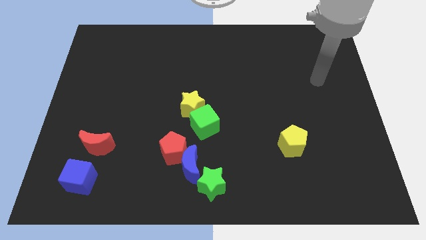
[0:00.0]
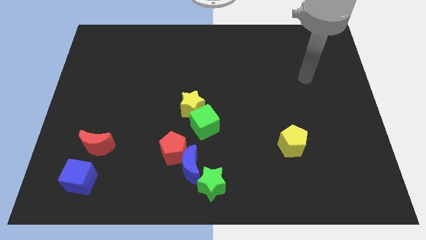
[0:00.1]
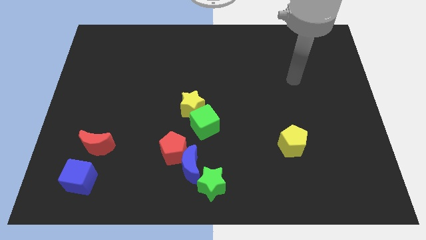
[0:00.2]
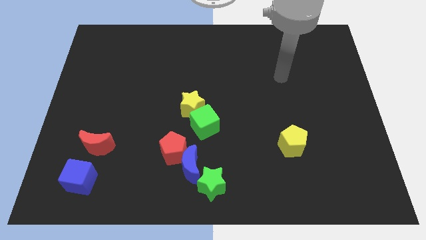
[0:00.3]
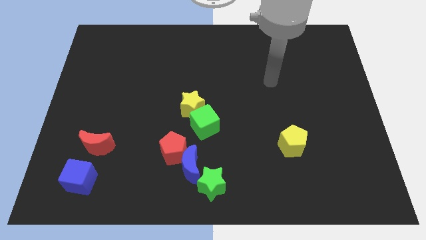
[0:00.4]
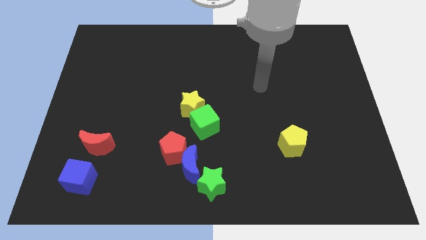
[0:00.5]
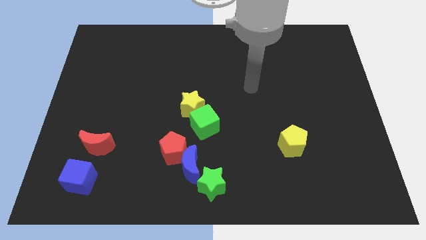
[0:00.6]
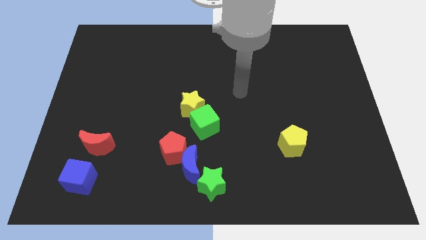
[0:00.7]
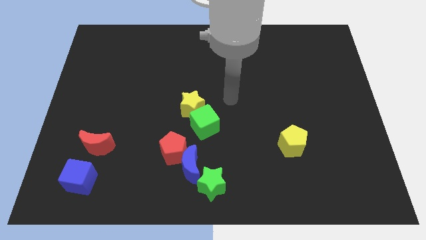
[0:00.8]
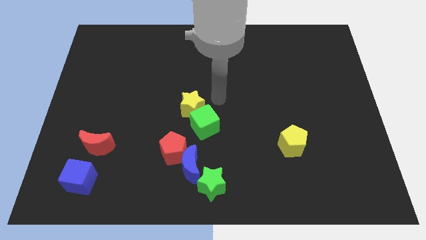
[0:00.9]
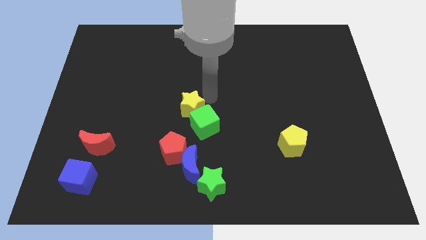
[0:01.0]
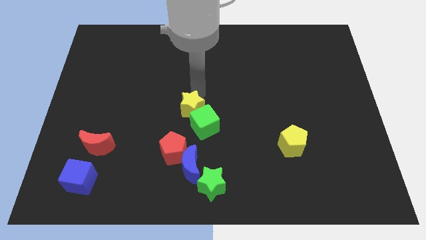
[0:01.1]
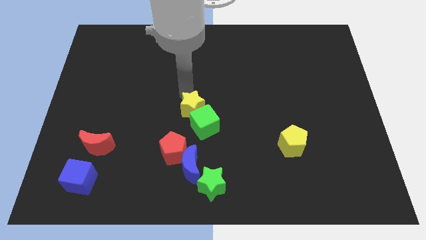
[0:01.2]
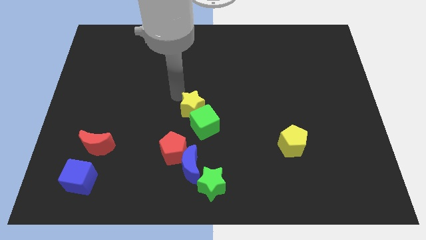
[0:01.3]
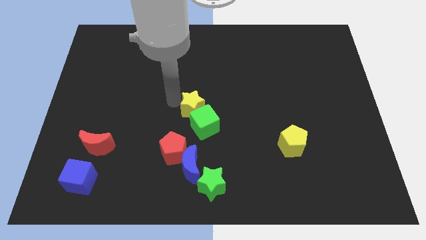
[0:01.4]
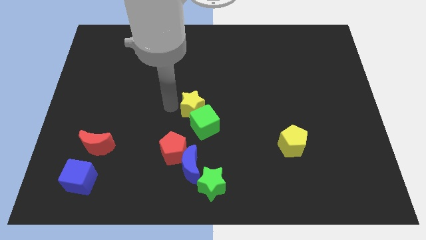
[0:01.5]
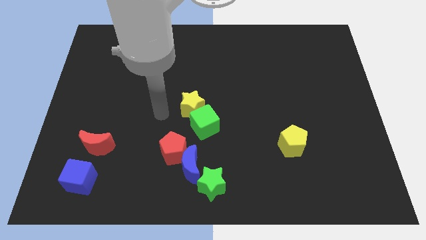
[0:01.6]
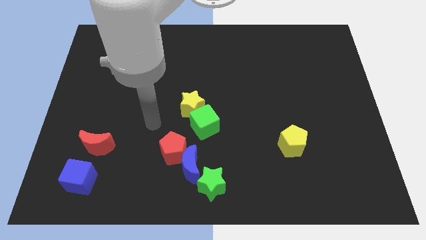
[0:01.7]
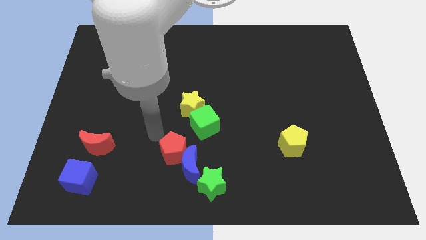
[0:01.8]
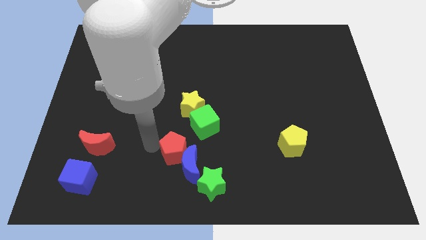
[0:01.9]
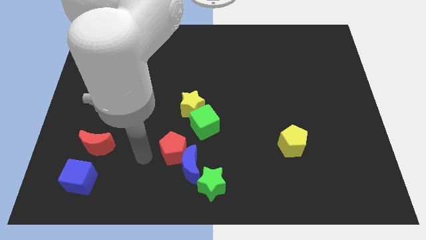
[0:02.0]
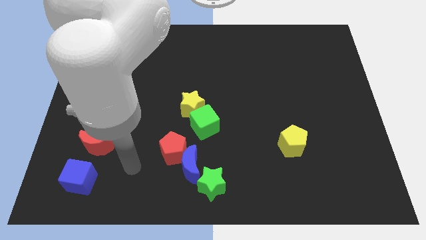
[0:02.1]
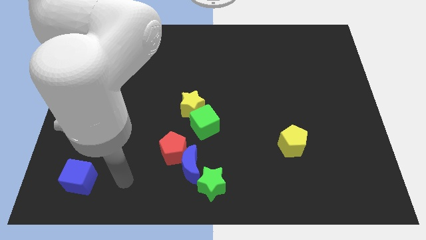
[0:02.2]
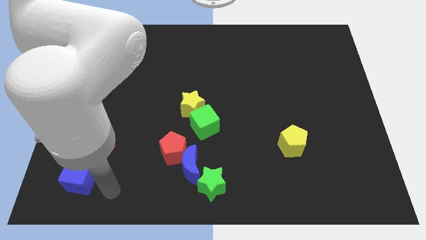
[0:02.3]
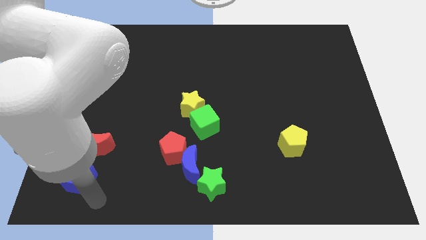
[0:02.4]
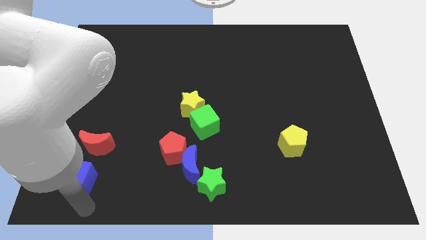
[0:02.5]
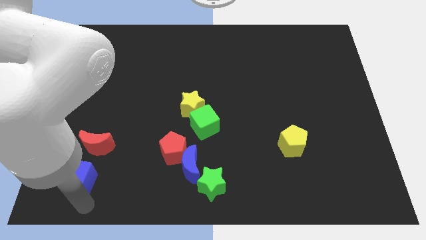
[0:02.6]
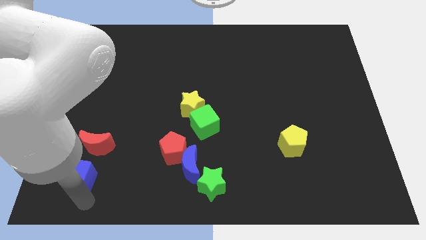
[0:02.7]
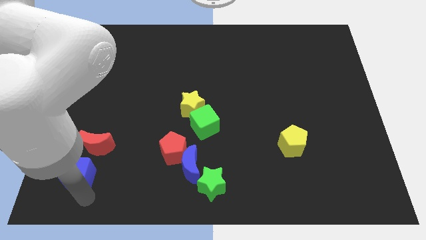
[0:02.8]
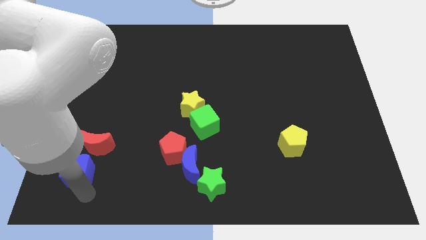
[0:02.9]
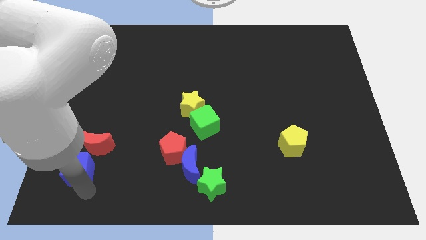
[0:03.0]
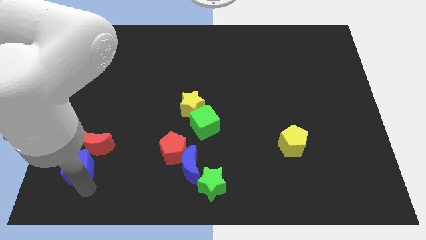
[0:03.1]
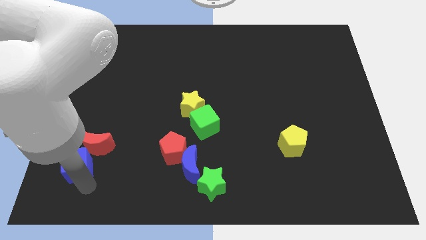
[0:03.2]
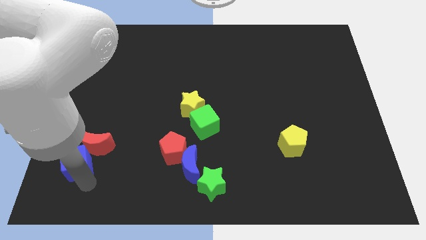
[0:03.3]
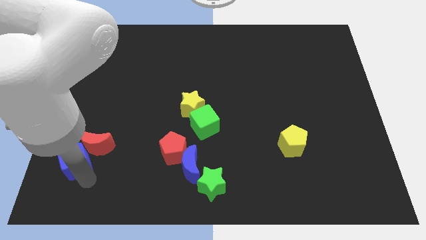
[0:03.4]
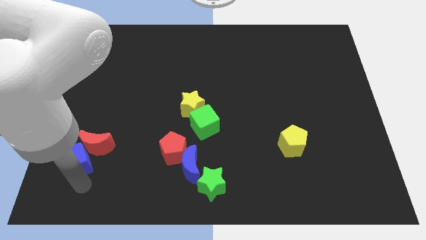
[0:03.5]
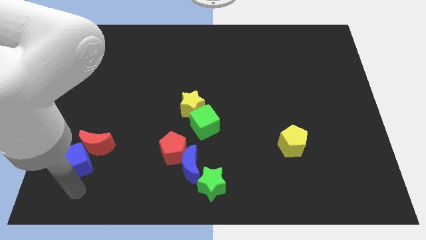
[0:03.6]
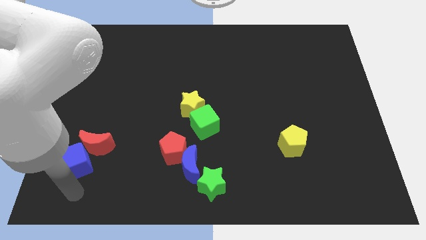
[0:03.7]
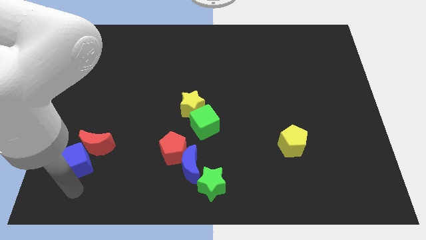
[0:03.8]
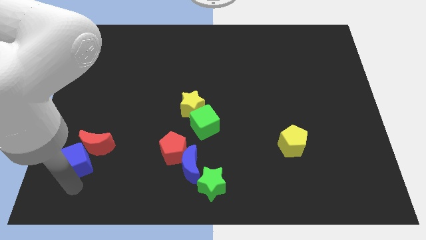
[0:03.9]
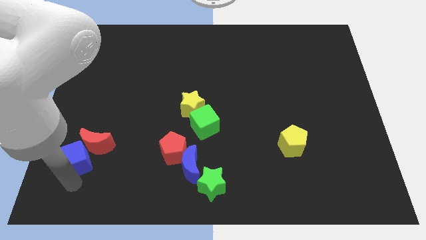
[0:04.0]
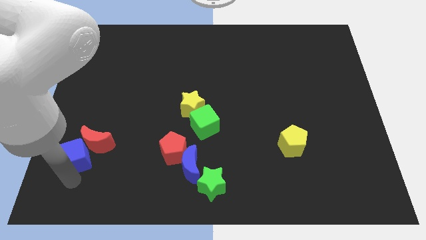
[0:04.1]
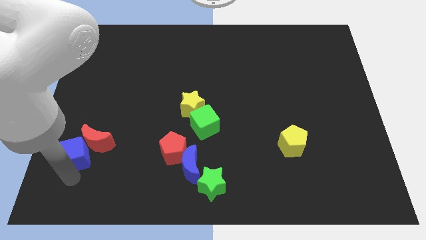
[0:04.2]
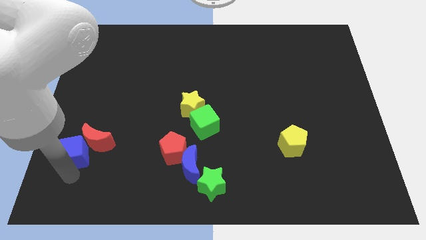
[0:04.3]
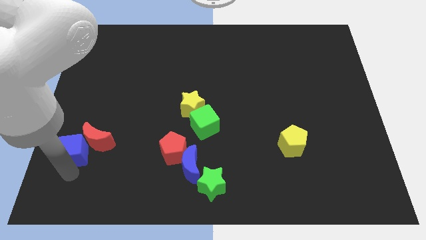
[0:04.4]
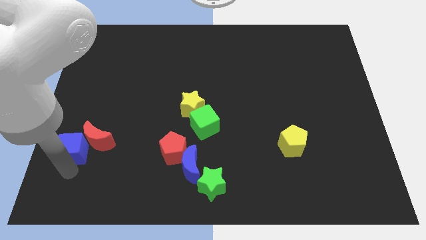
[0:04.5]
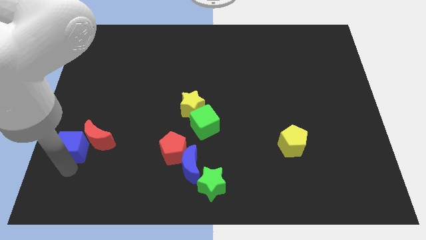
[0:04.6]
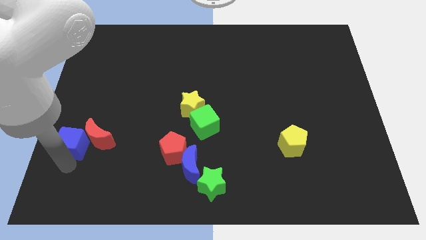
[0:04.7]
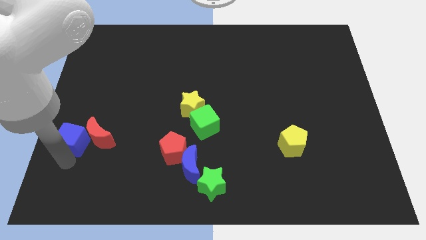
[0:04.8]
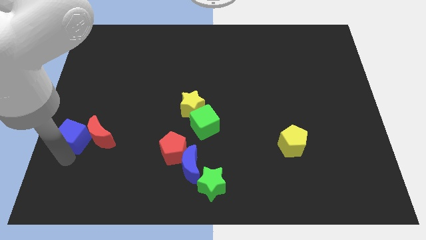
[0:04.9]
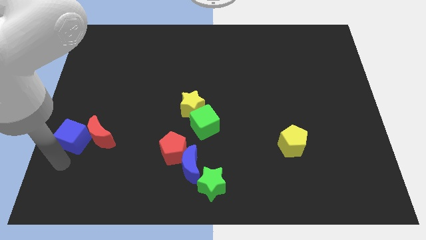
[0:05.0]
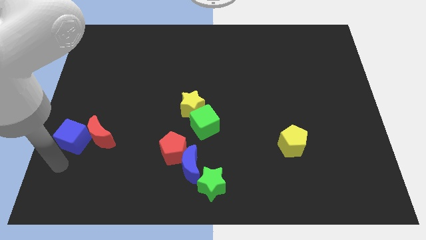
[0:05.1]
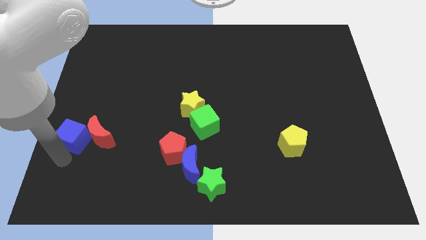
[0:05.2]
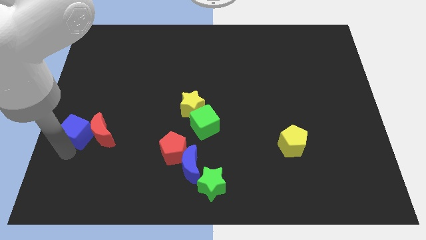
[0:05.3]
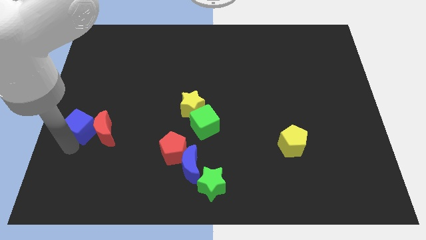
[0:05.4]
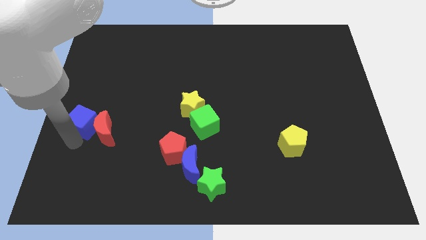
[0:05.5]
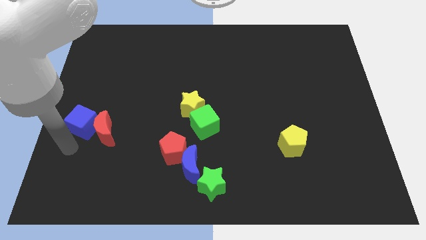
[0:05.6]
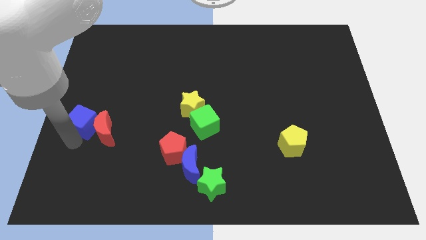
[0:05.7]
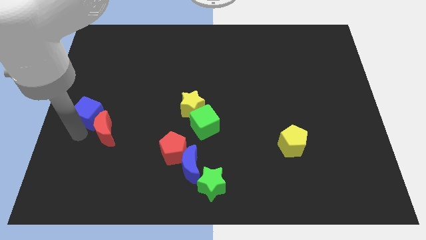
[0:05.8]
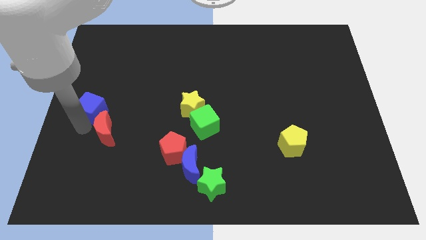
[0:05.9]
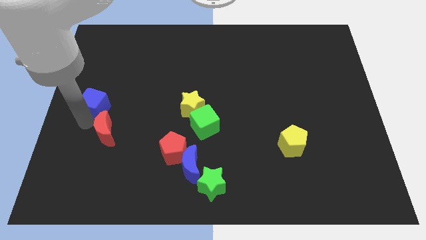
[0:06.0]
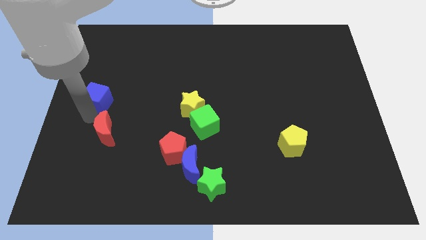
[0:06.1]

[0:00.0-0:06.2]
push the blue cube upwards

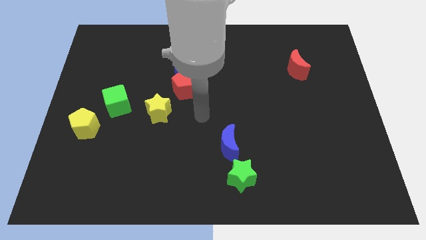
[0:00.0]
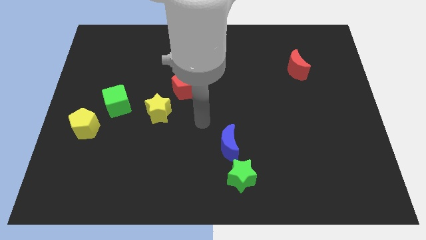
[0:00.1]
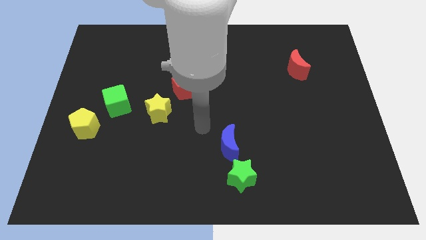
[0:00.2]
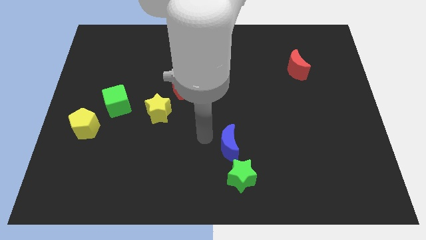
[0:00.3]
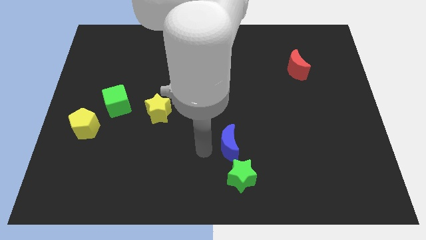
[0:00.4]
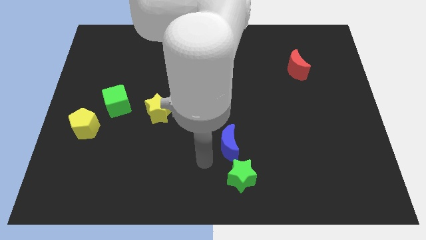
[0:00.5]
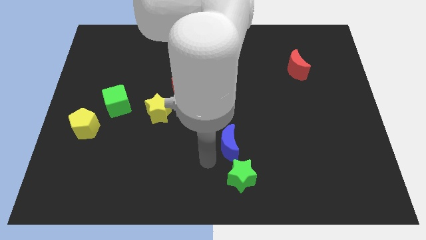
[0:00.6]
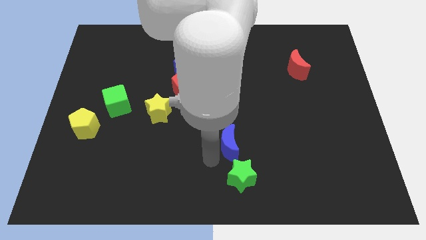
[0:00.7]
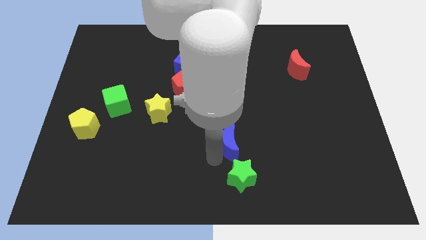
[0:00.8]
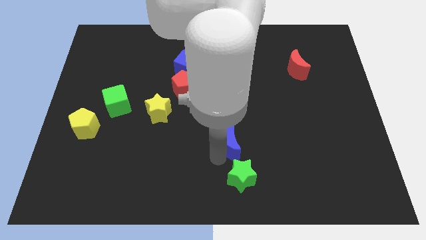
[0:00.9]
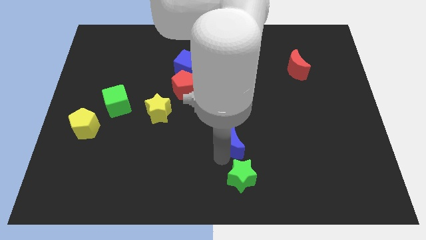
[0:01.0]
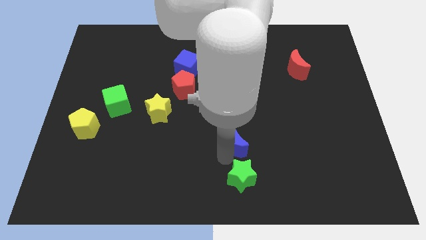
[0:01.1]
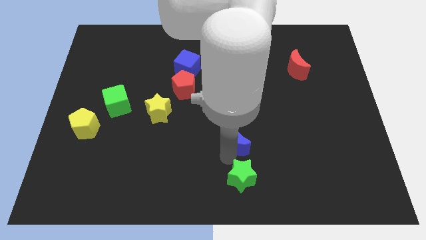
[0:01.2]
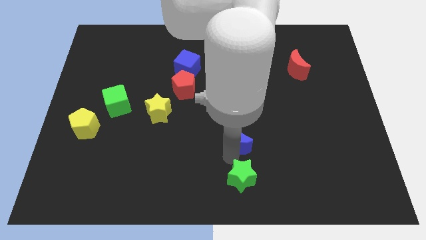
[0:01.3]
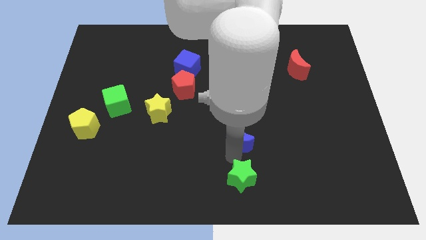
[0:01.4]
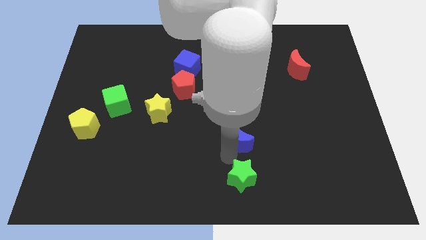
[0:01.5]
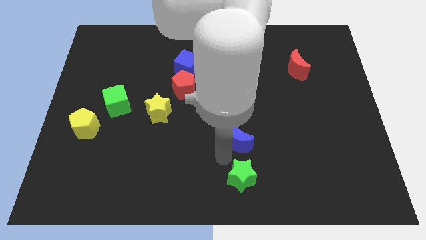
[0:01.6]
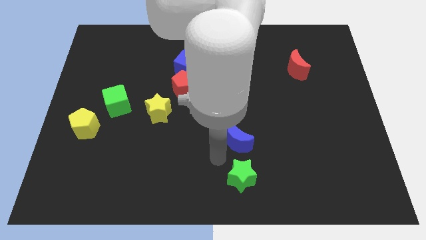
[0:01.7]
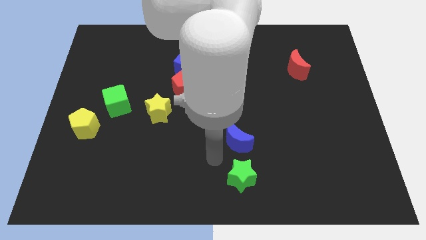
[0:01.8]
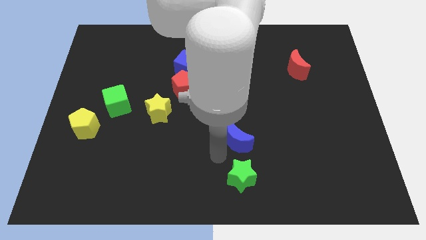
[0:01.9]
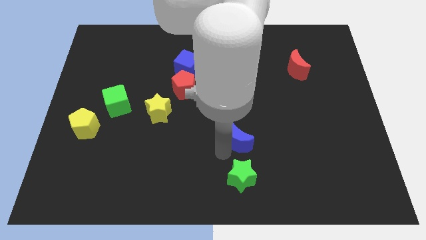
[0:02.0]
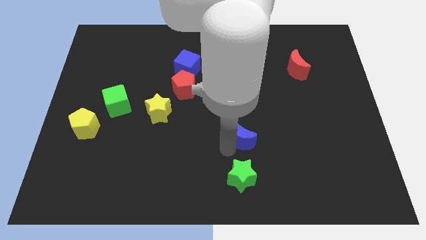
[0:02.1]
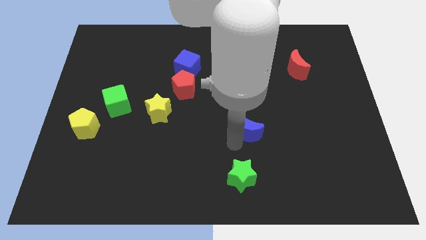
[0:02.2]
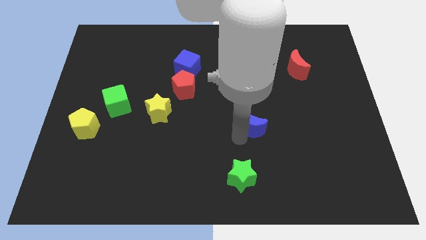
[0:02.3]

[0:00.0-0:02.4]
slightly push the blue moon diagonally upwards and to the right
